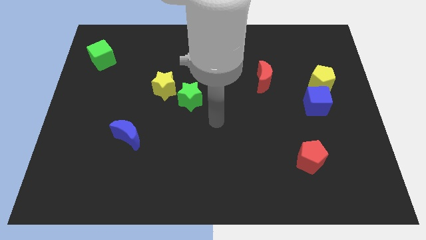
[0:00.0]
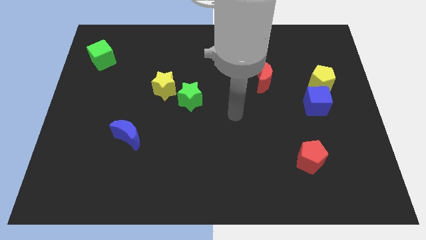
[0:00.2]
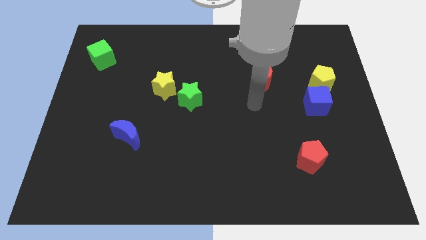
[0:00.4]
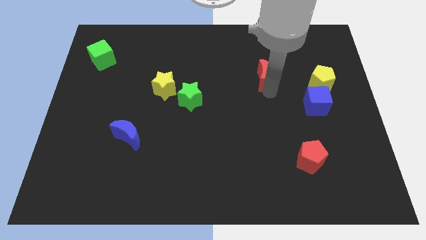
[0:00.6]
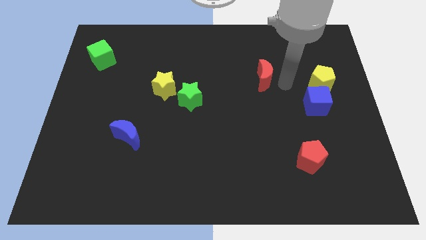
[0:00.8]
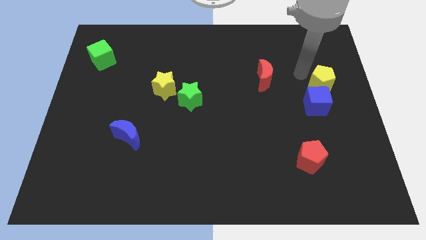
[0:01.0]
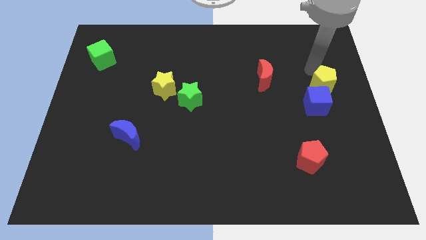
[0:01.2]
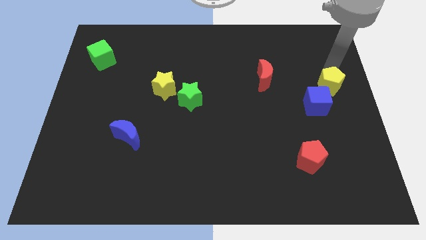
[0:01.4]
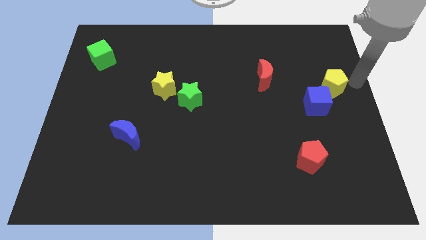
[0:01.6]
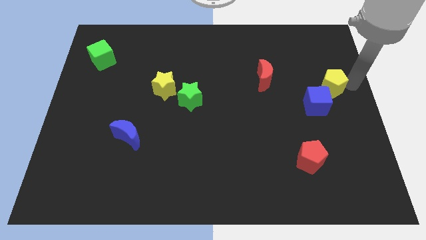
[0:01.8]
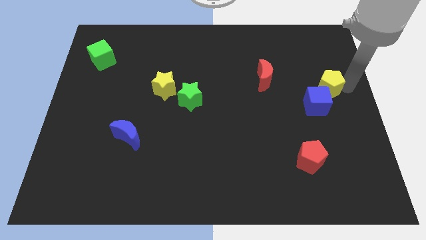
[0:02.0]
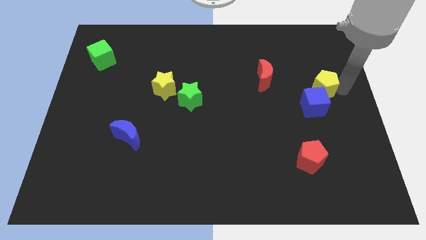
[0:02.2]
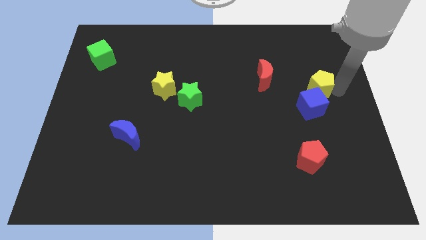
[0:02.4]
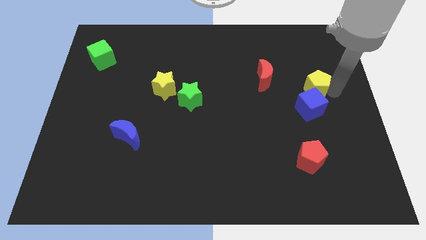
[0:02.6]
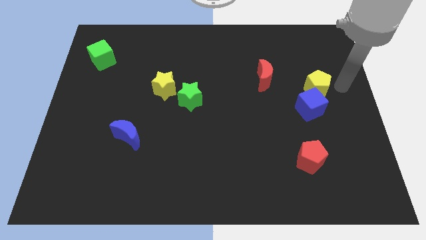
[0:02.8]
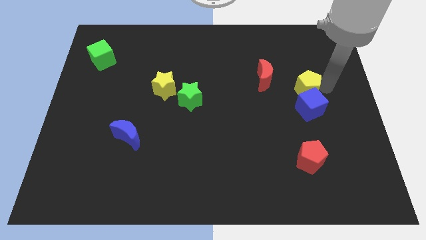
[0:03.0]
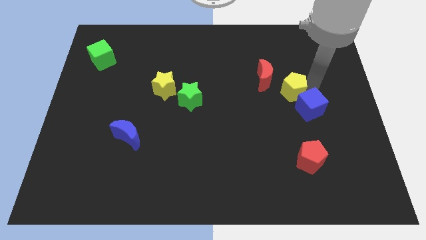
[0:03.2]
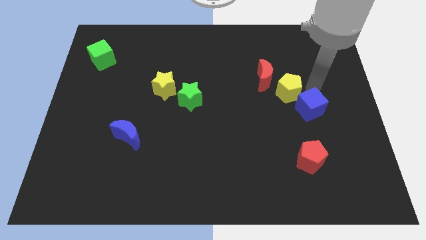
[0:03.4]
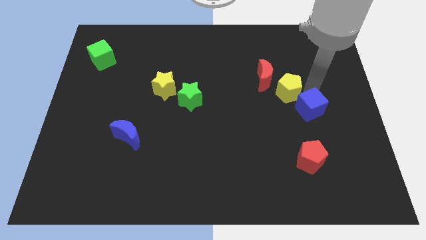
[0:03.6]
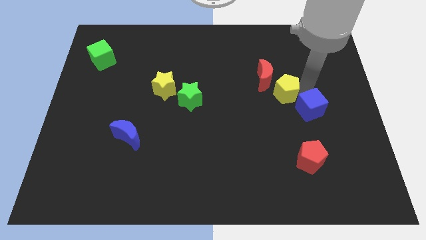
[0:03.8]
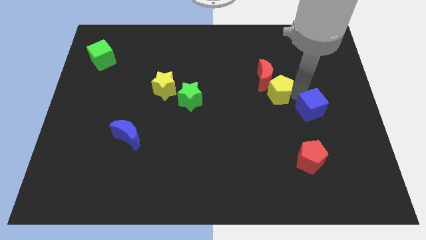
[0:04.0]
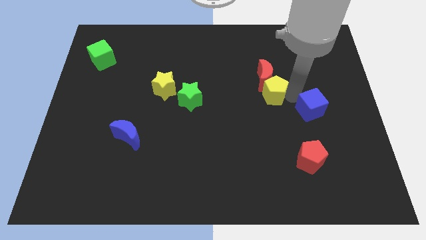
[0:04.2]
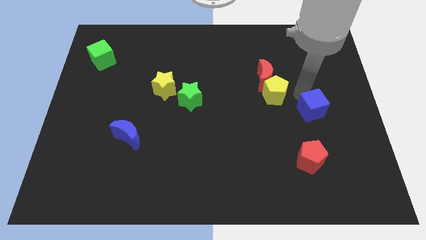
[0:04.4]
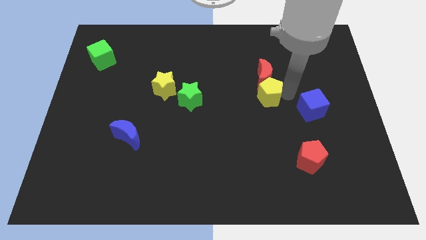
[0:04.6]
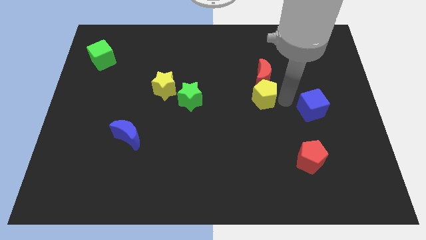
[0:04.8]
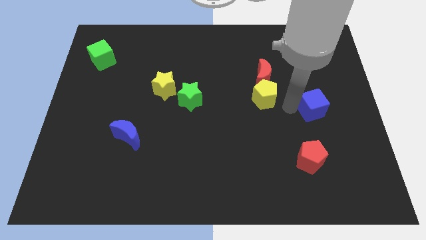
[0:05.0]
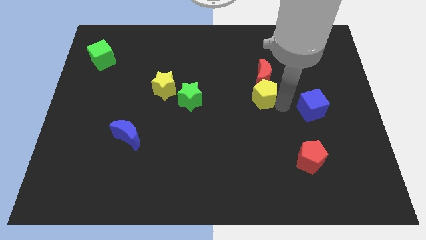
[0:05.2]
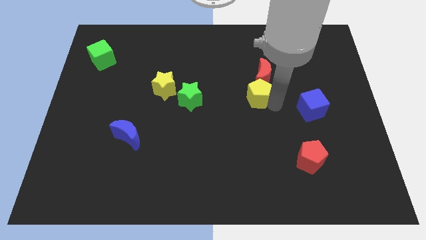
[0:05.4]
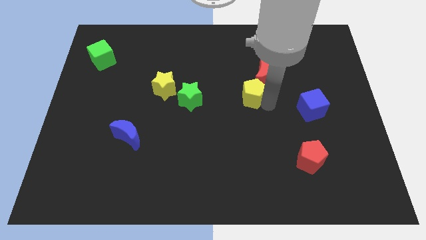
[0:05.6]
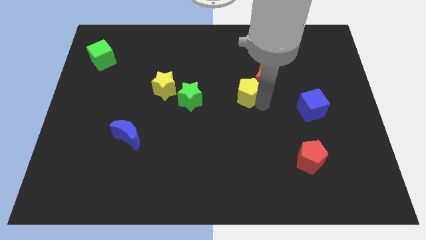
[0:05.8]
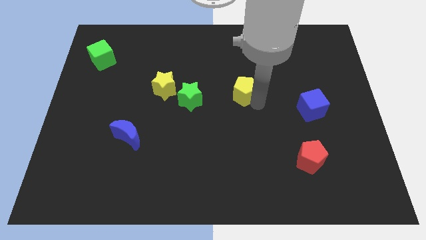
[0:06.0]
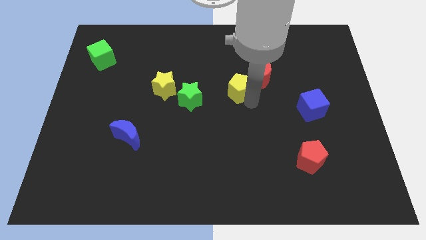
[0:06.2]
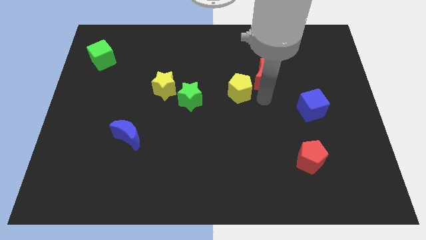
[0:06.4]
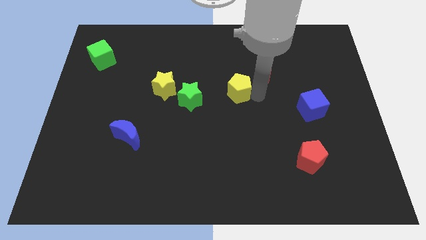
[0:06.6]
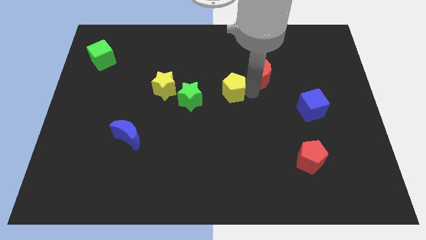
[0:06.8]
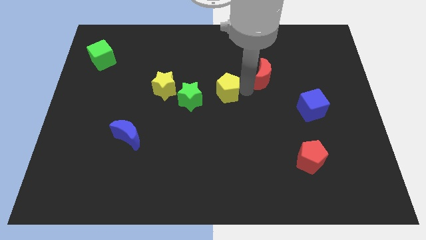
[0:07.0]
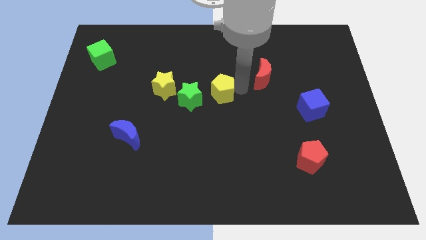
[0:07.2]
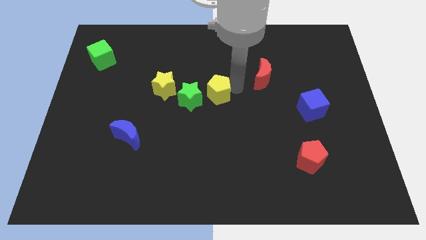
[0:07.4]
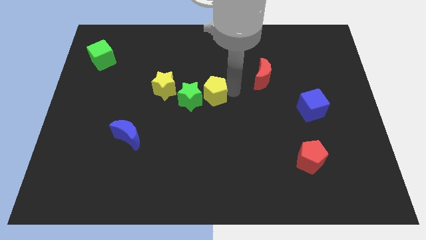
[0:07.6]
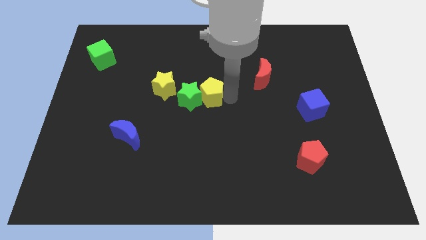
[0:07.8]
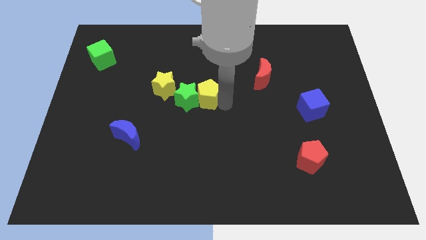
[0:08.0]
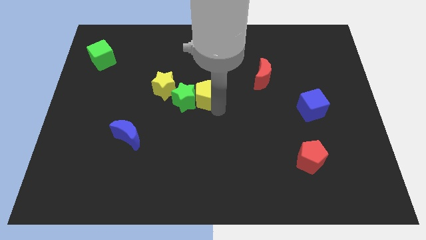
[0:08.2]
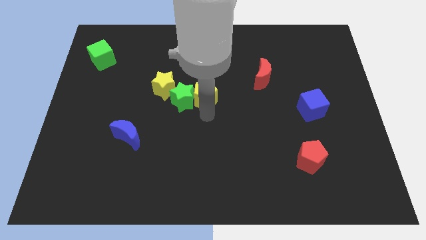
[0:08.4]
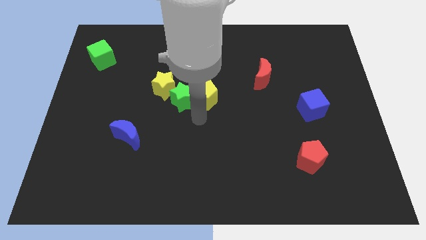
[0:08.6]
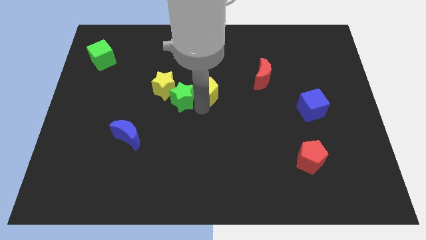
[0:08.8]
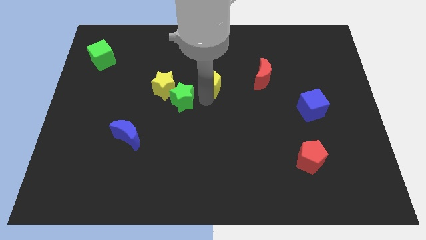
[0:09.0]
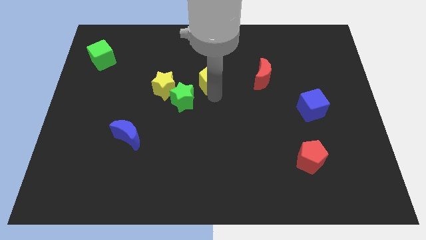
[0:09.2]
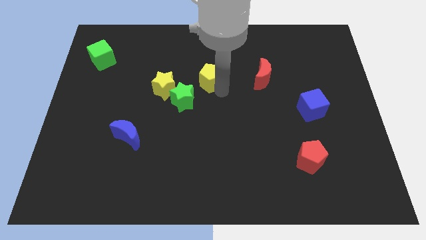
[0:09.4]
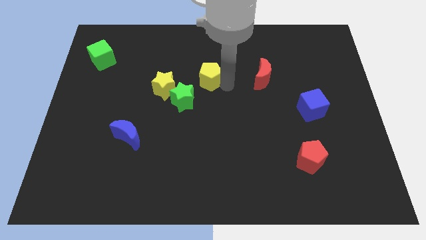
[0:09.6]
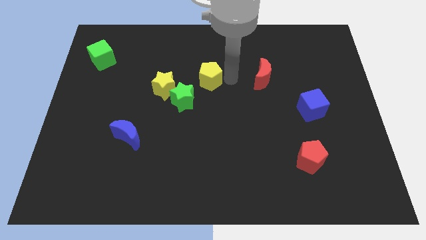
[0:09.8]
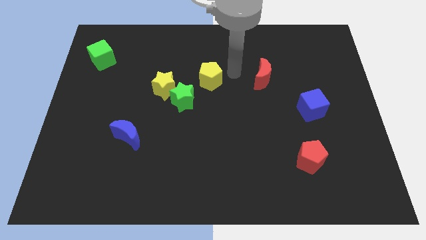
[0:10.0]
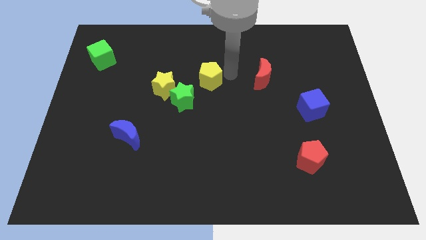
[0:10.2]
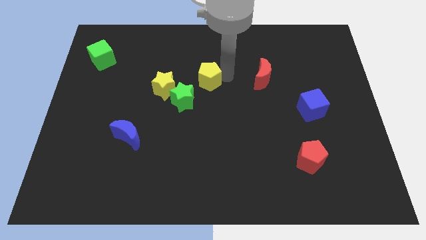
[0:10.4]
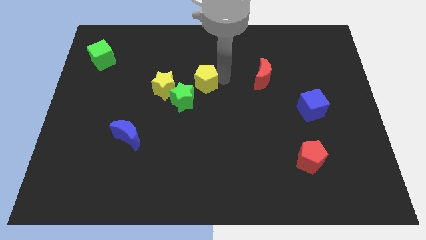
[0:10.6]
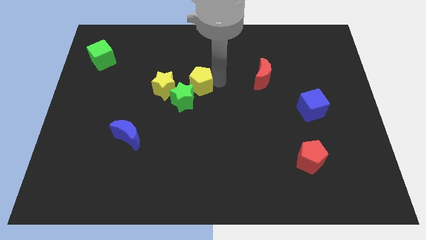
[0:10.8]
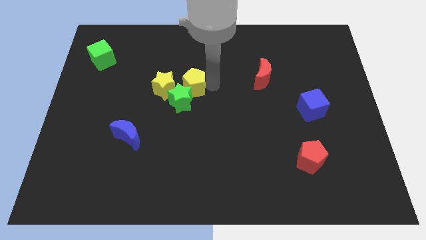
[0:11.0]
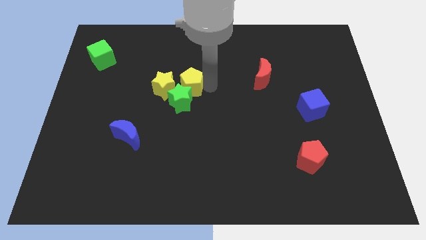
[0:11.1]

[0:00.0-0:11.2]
put the yellow pentagon close to the yellow star
